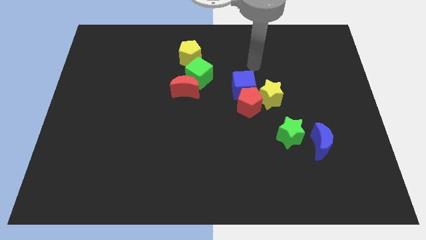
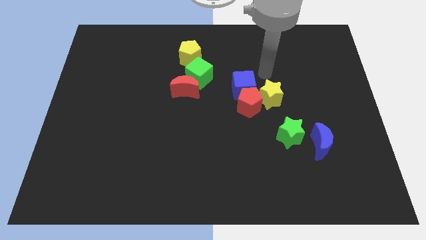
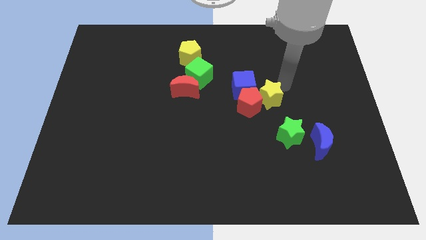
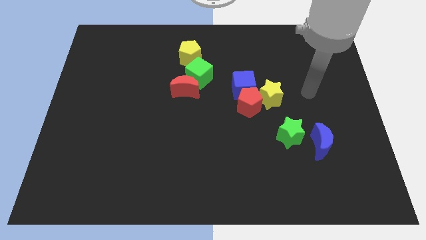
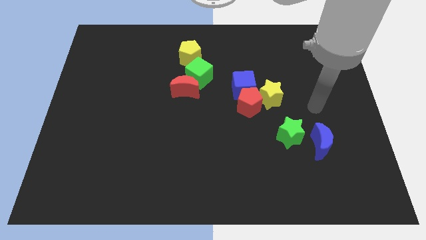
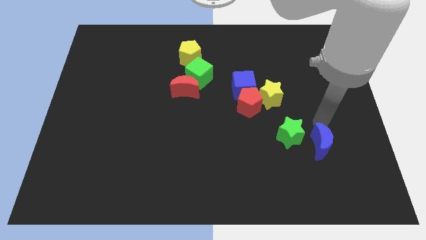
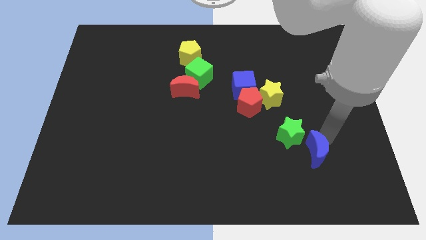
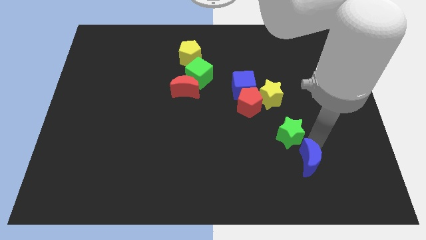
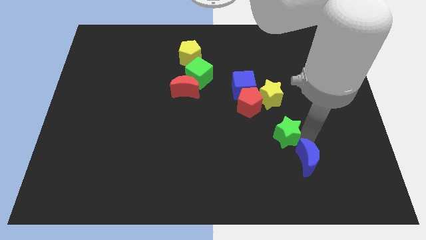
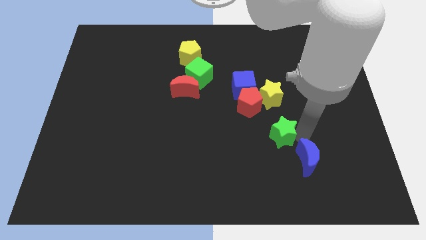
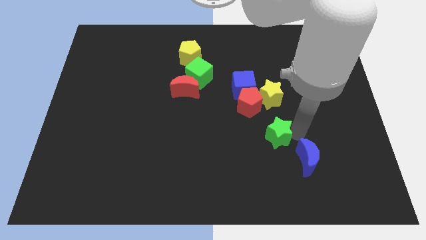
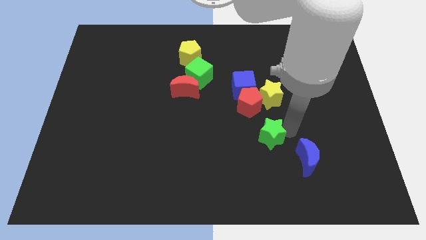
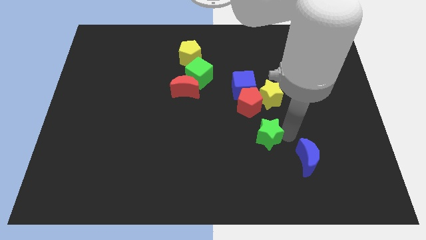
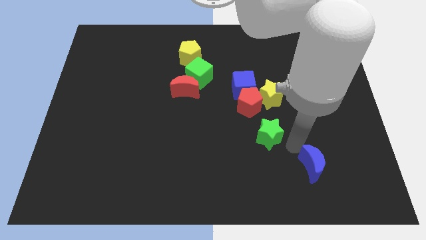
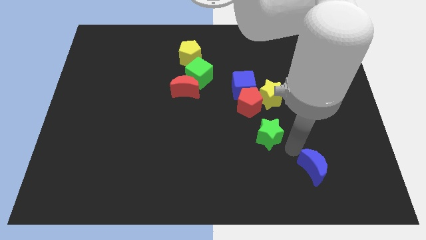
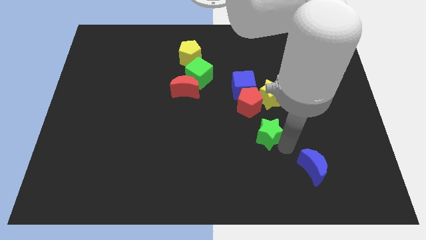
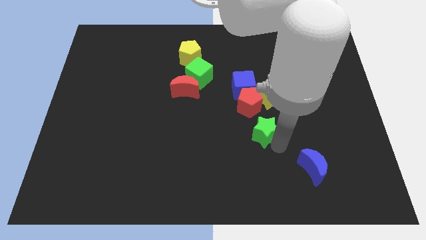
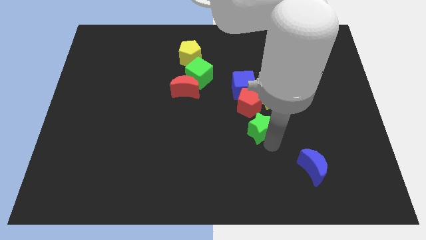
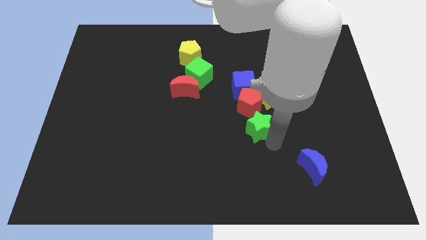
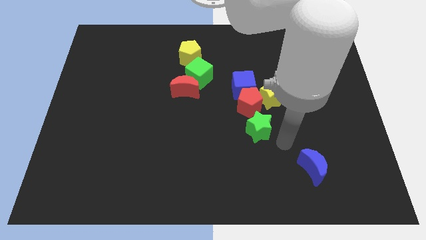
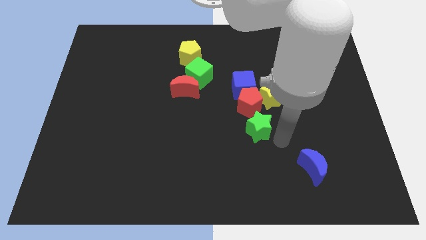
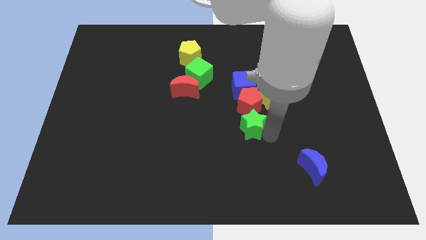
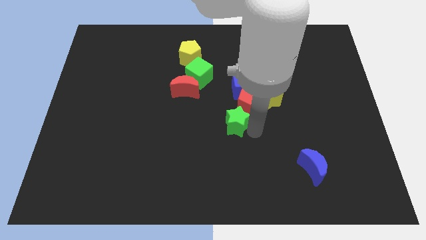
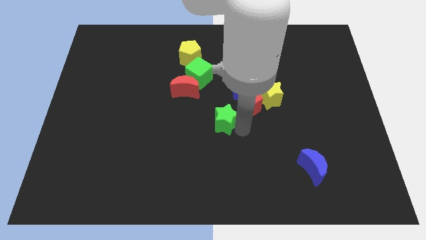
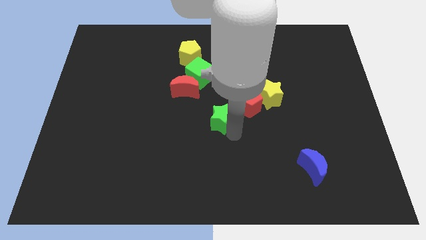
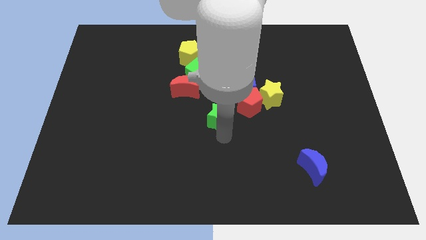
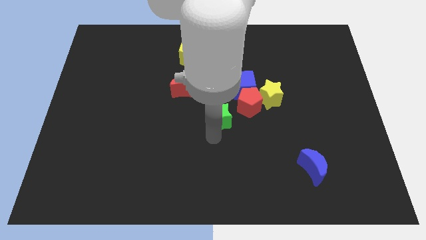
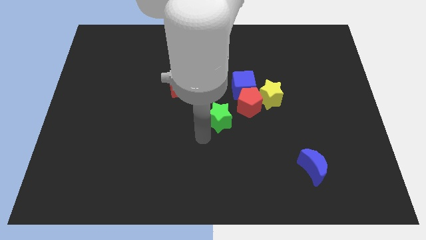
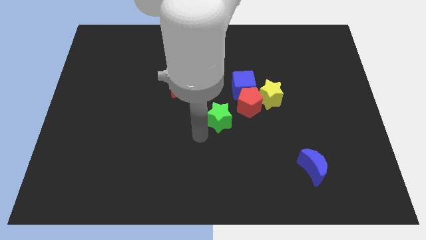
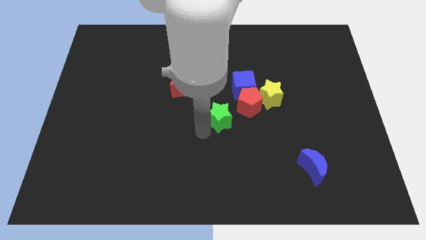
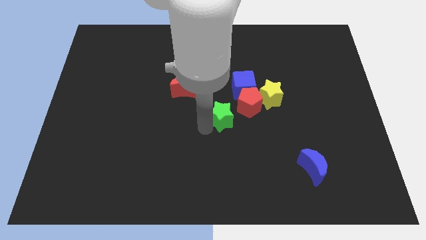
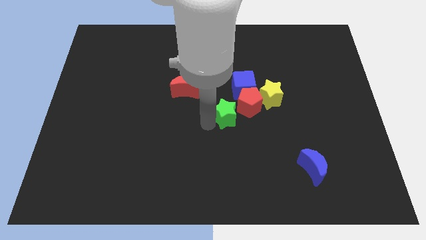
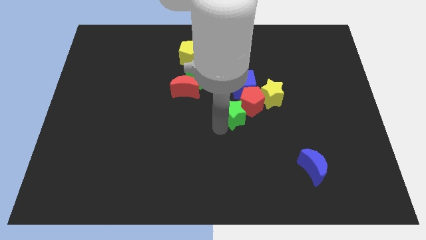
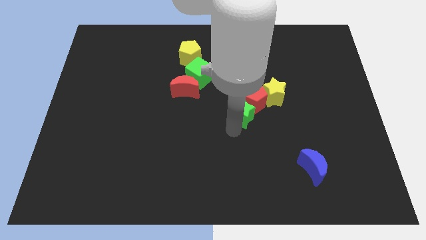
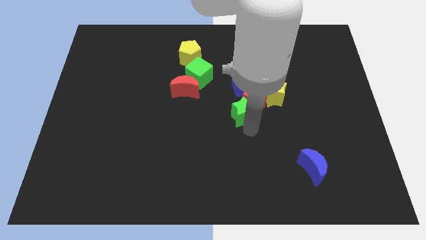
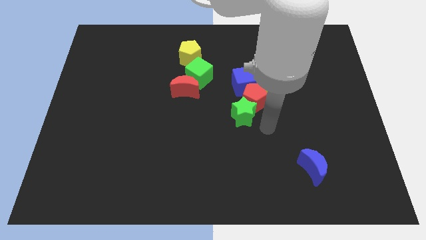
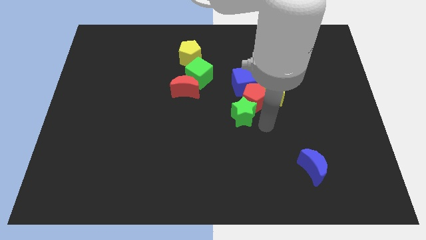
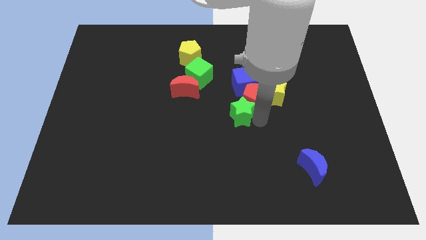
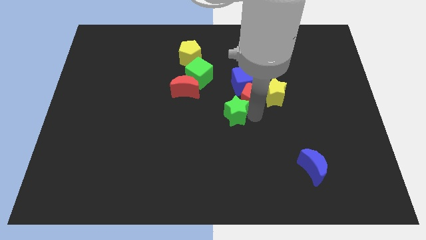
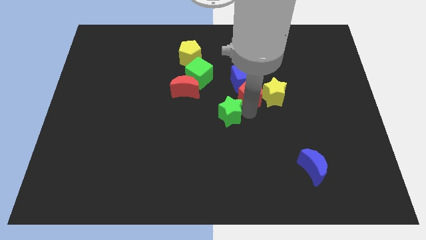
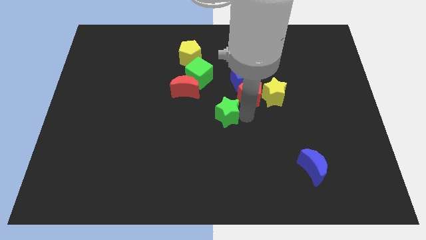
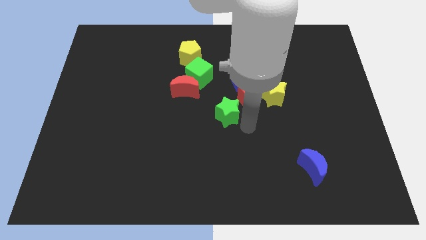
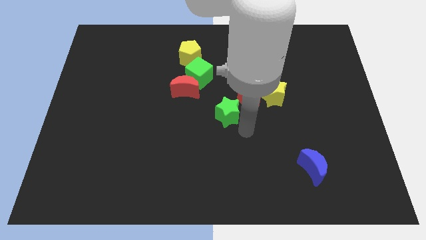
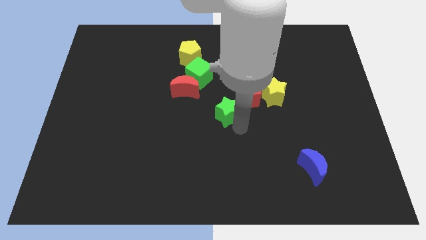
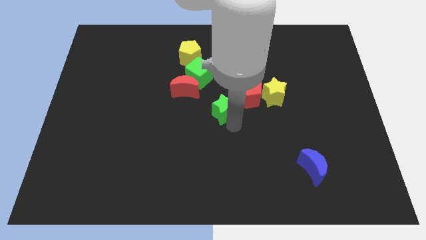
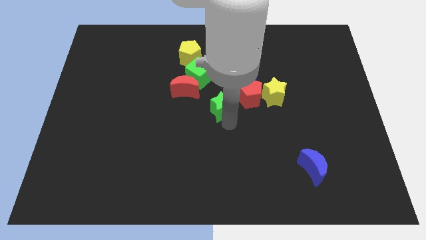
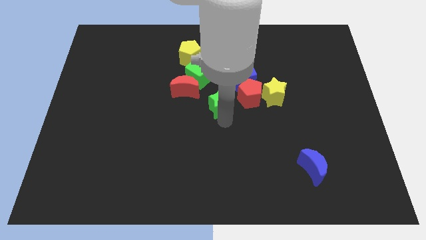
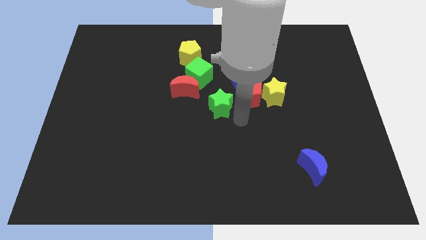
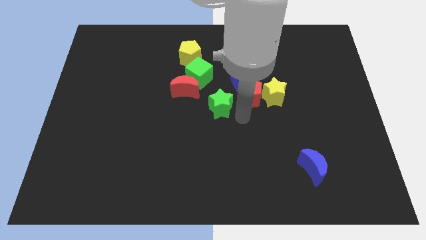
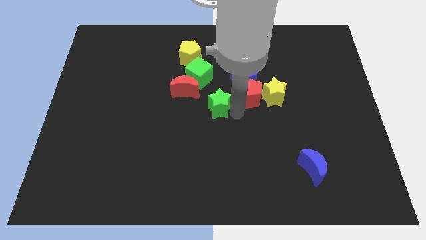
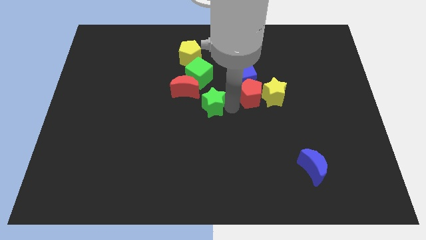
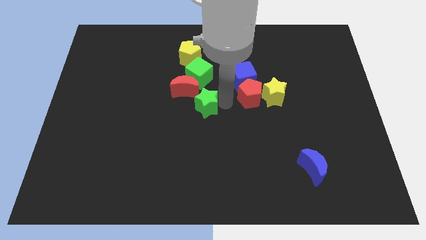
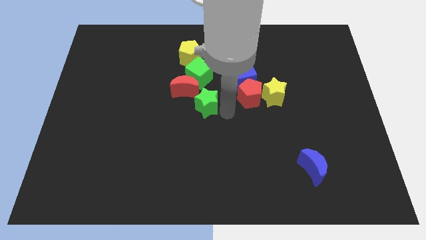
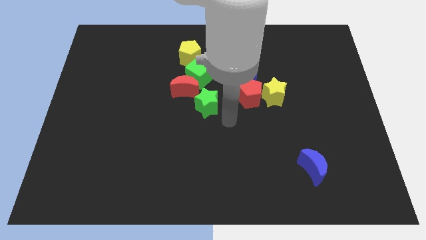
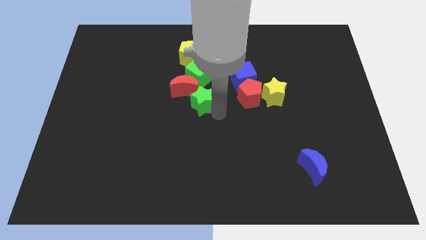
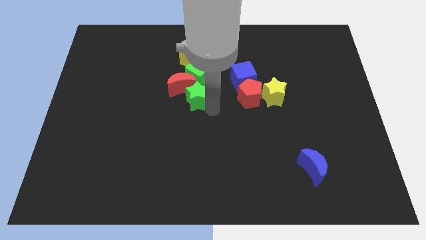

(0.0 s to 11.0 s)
push the green star close to the red moon

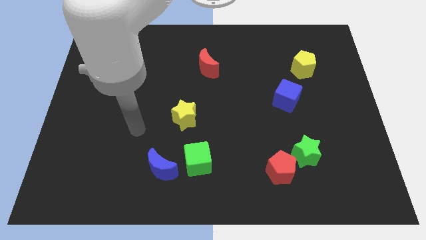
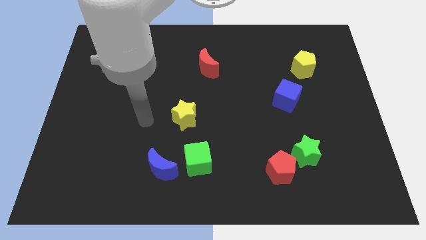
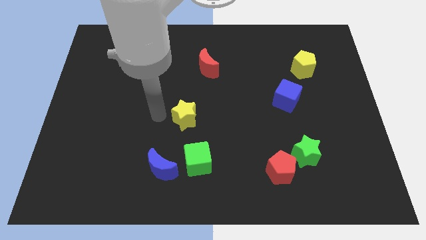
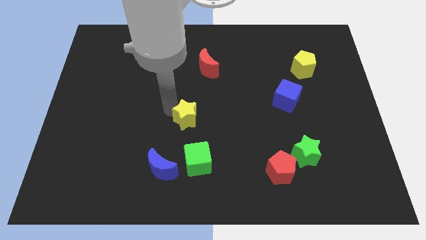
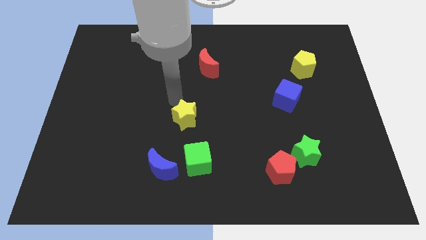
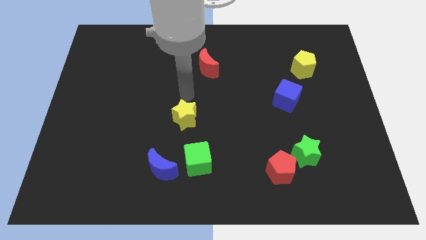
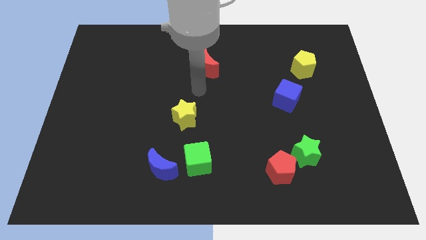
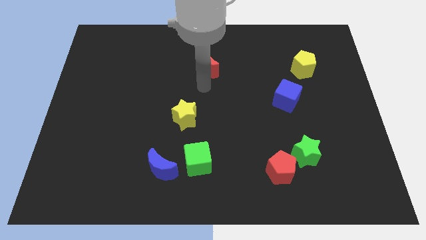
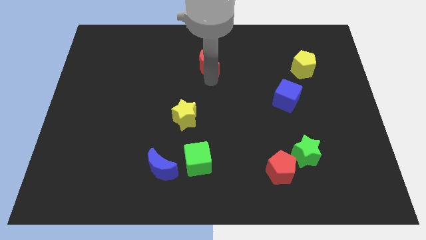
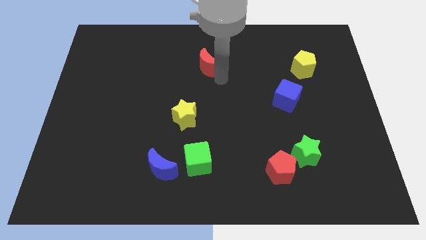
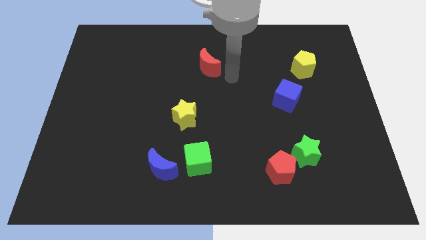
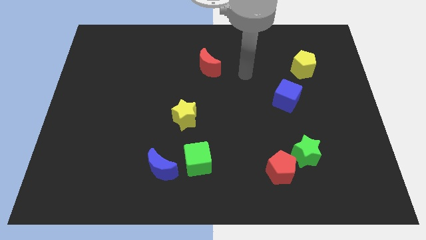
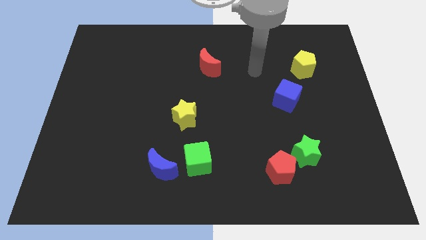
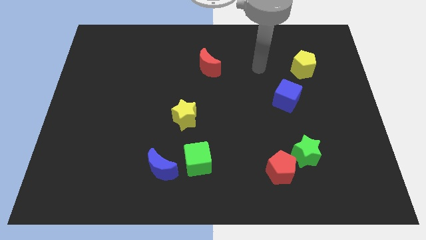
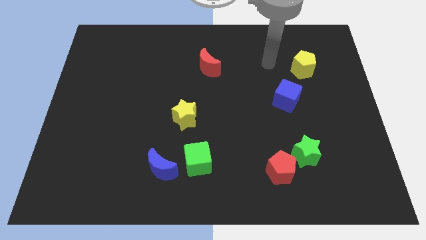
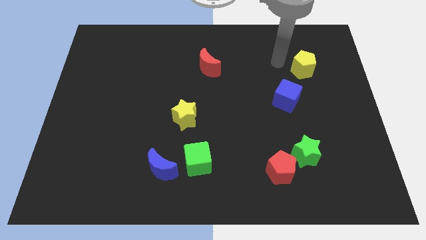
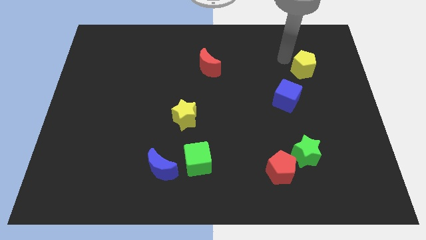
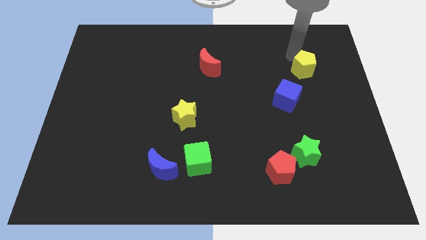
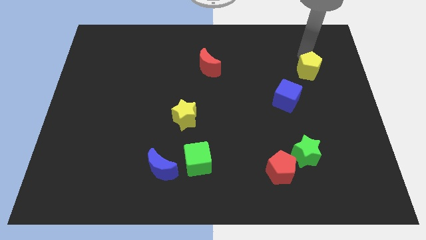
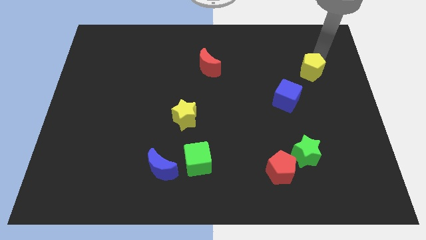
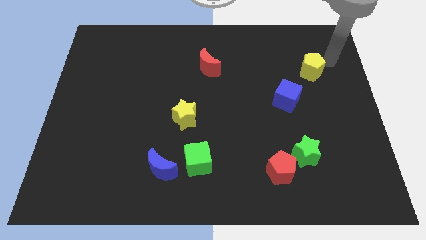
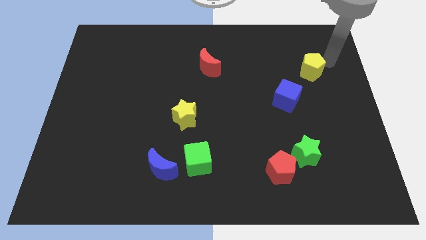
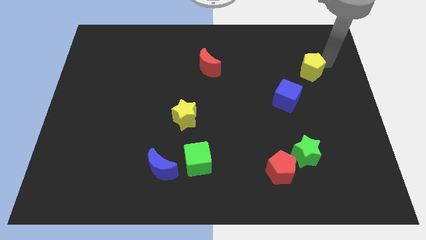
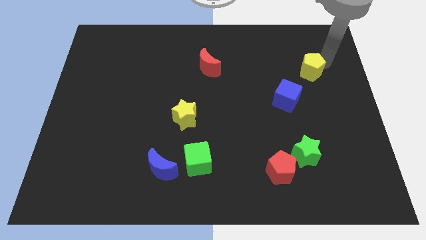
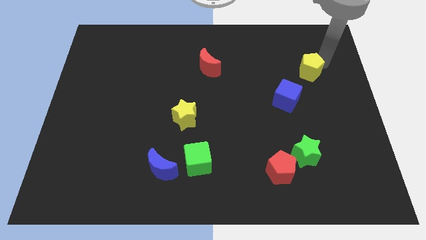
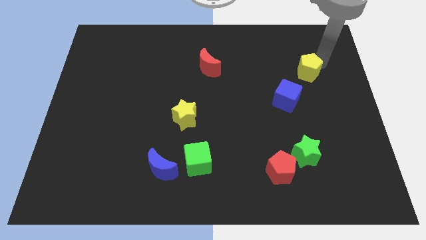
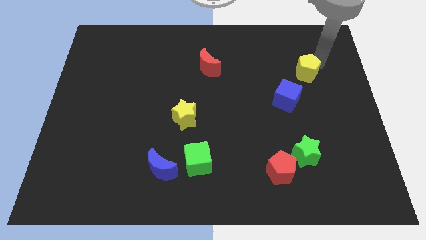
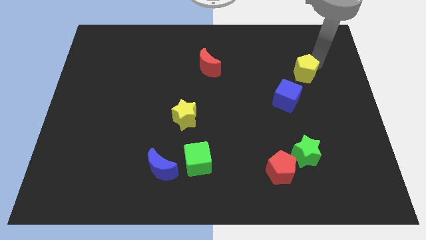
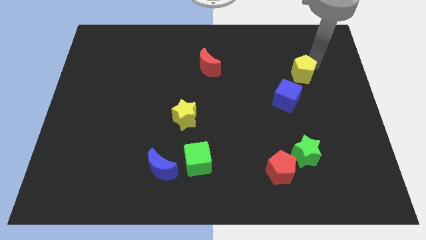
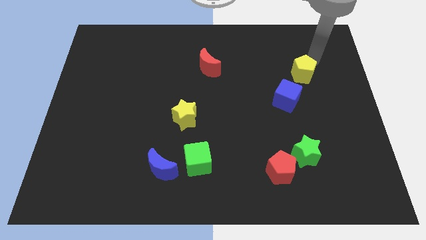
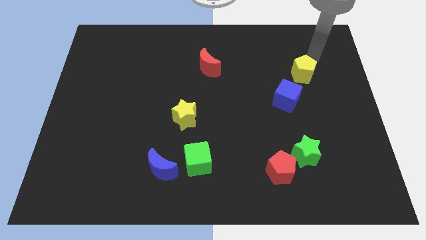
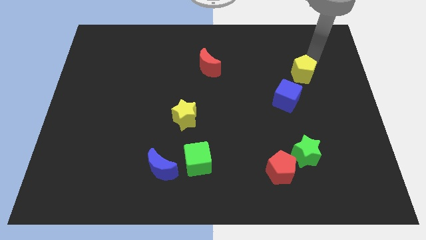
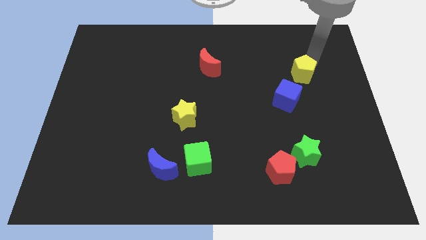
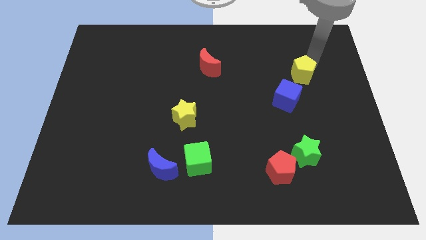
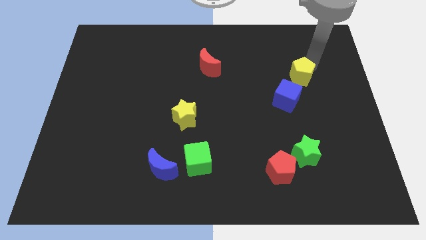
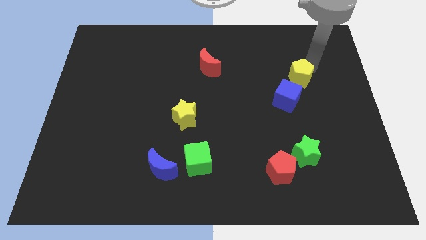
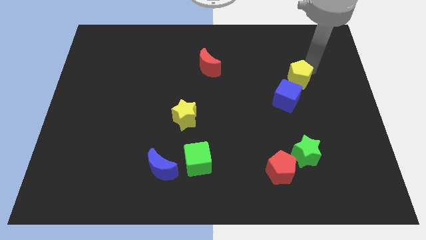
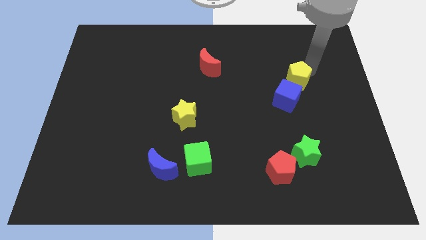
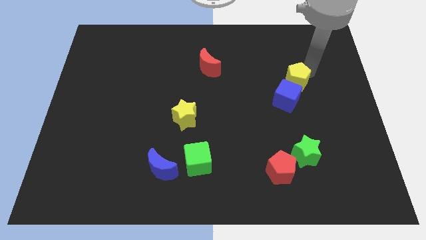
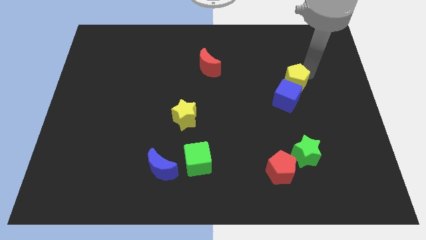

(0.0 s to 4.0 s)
move the yellow pentagon close to the blue cube
